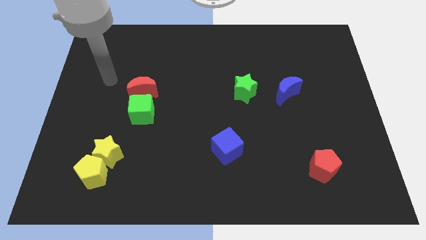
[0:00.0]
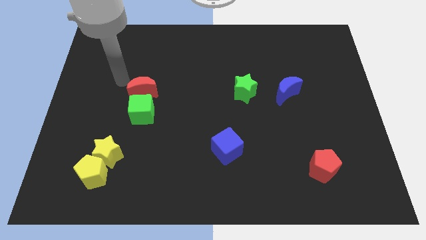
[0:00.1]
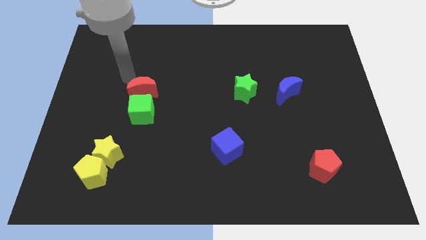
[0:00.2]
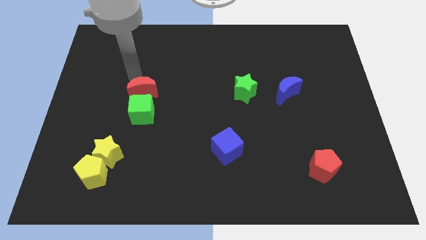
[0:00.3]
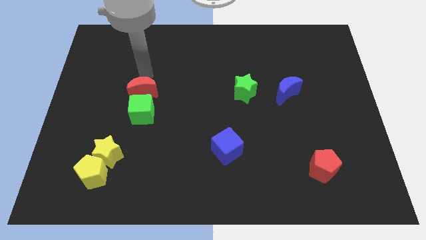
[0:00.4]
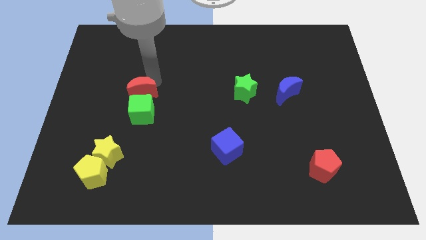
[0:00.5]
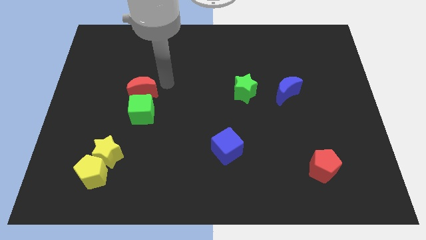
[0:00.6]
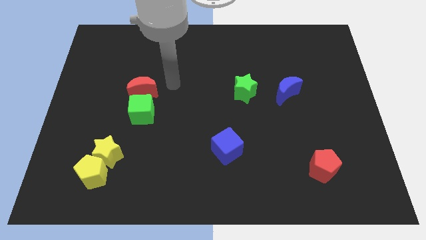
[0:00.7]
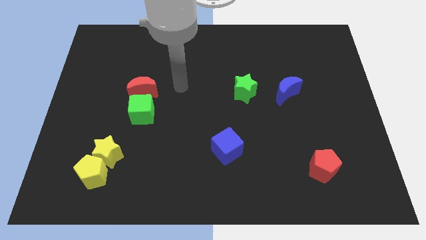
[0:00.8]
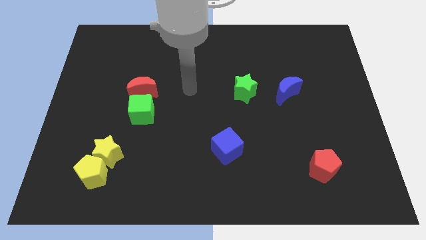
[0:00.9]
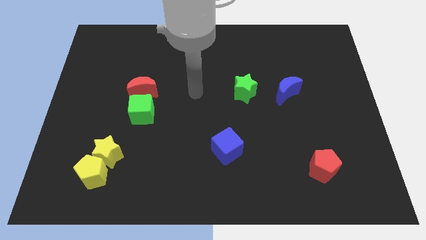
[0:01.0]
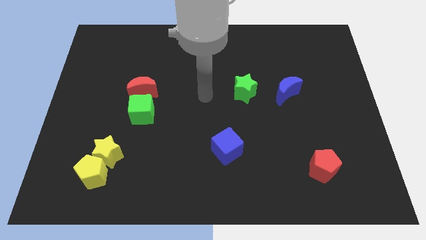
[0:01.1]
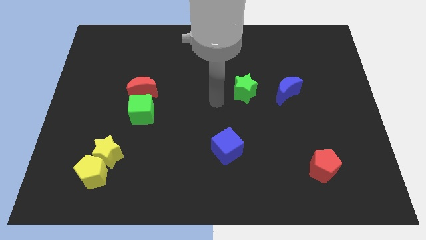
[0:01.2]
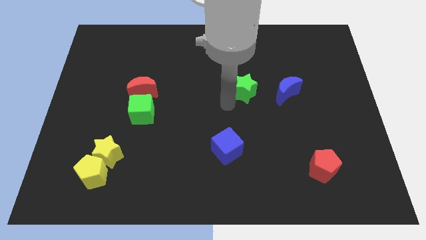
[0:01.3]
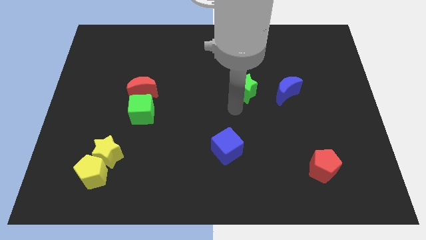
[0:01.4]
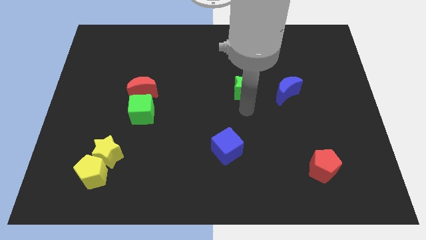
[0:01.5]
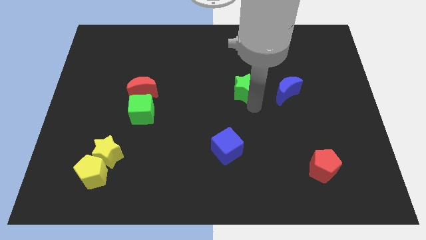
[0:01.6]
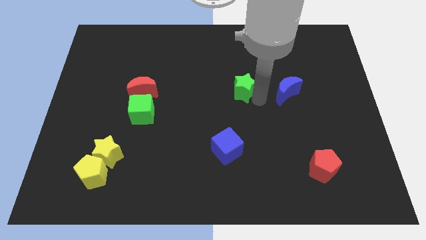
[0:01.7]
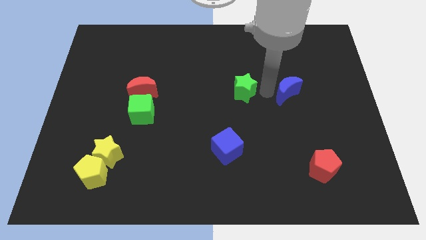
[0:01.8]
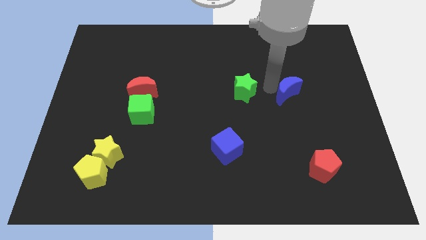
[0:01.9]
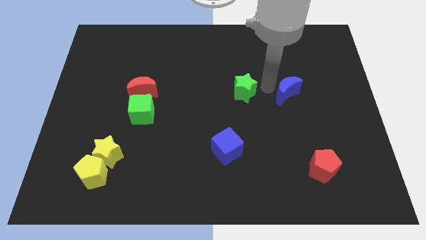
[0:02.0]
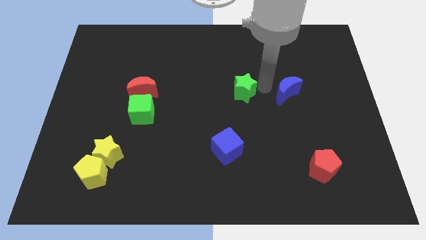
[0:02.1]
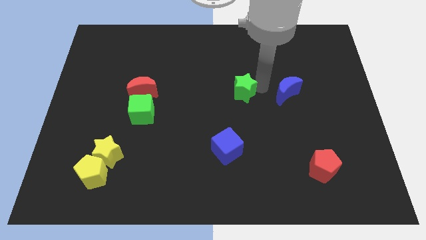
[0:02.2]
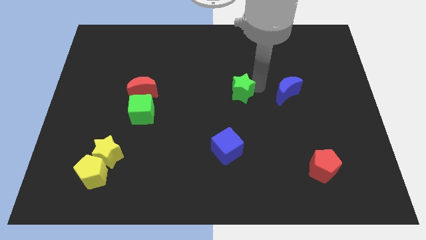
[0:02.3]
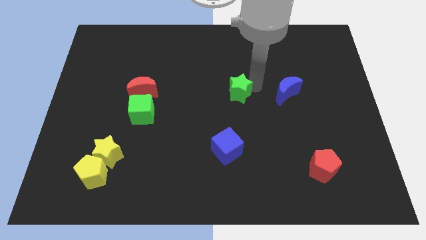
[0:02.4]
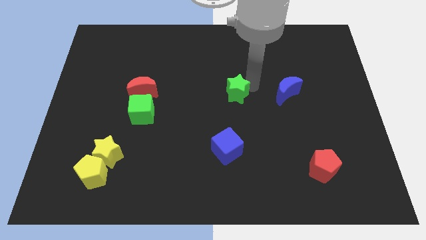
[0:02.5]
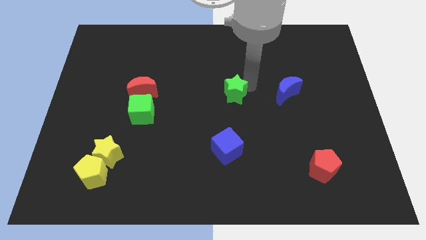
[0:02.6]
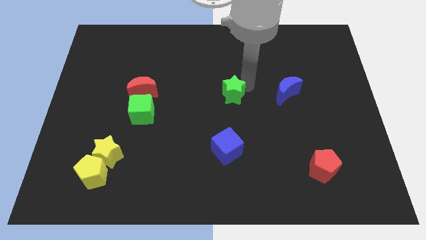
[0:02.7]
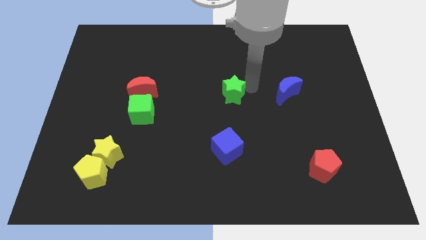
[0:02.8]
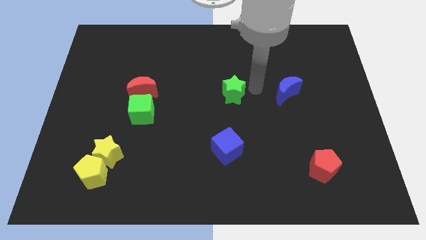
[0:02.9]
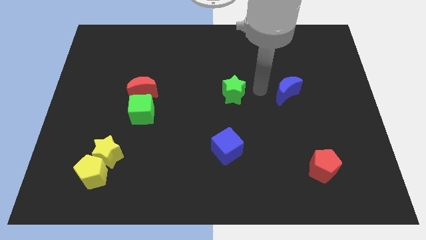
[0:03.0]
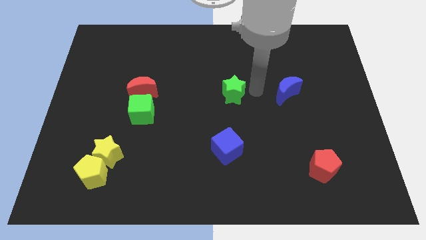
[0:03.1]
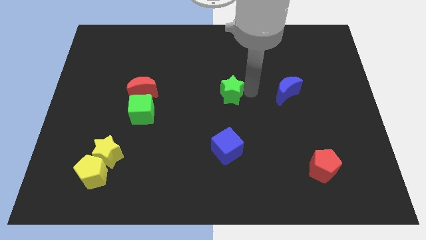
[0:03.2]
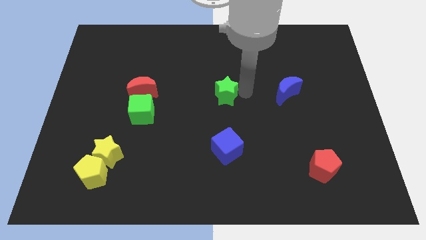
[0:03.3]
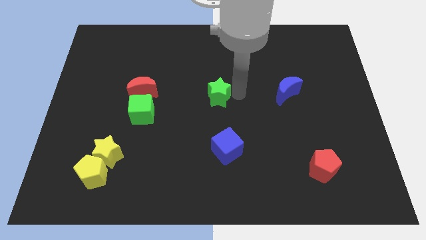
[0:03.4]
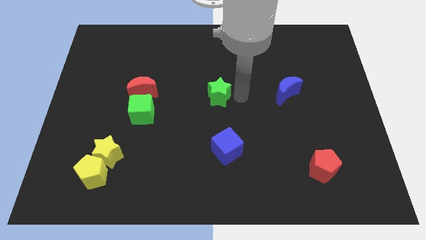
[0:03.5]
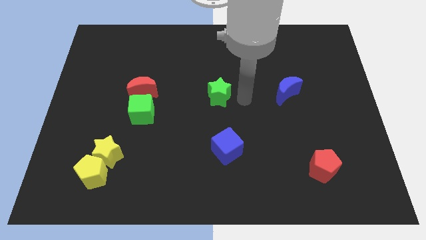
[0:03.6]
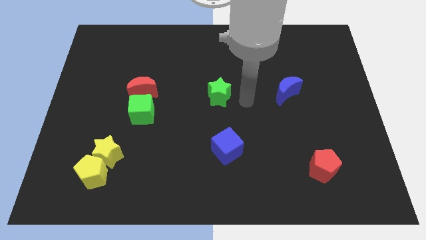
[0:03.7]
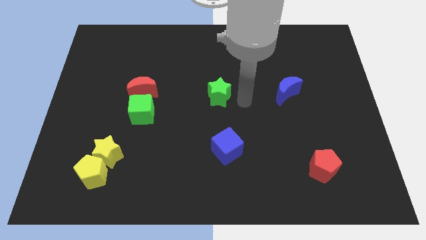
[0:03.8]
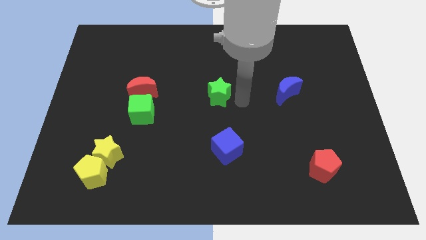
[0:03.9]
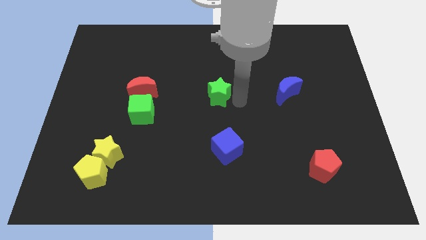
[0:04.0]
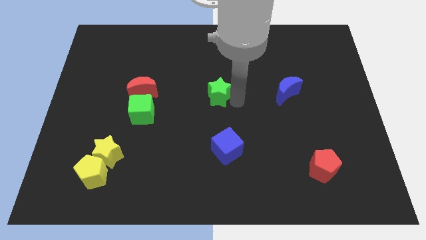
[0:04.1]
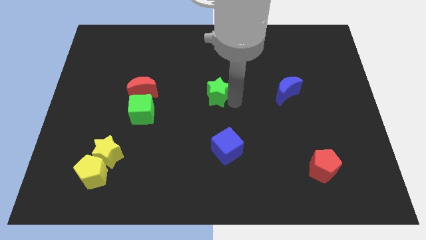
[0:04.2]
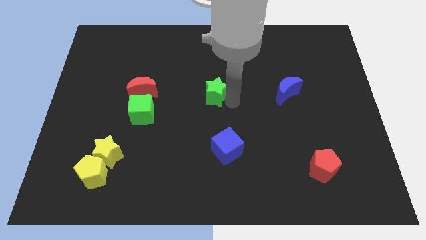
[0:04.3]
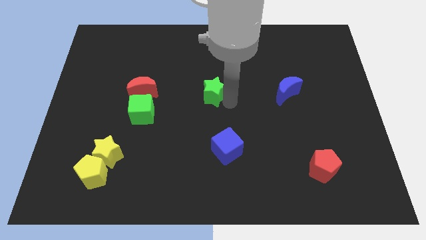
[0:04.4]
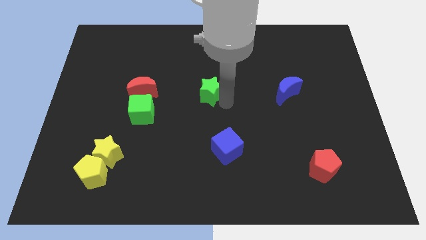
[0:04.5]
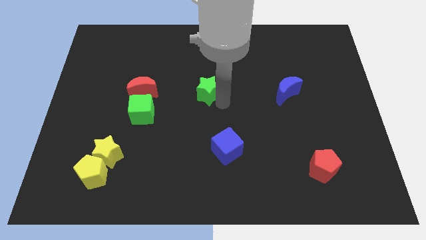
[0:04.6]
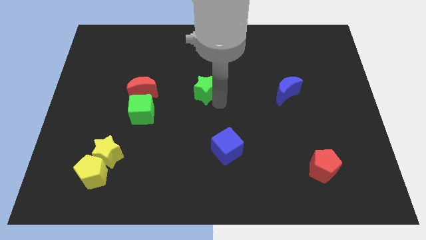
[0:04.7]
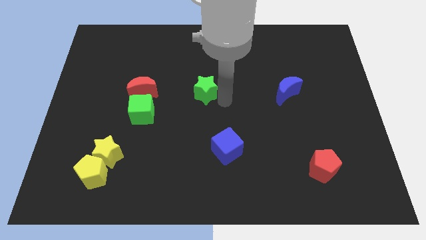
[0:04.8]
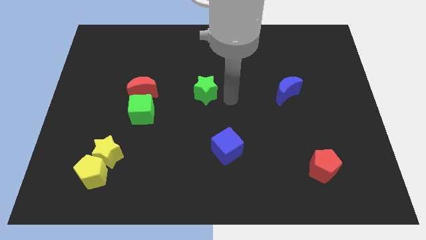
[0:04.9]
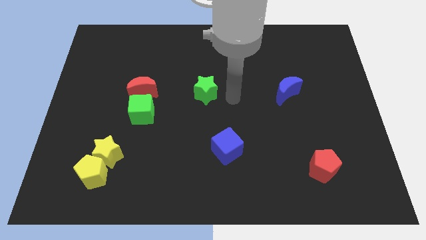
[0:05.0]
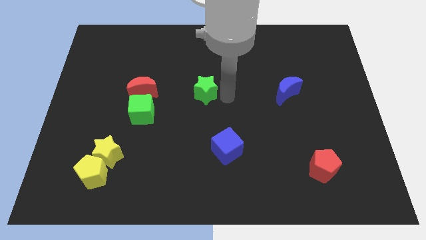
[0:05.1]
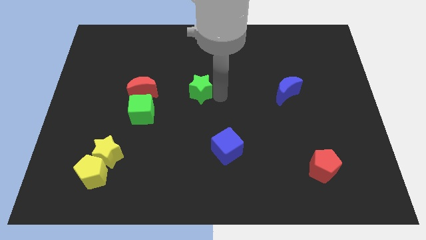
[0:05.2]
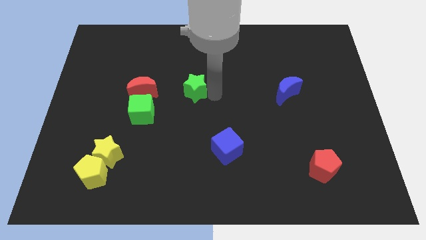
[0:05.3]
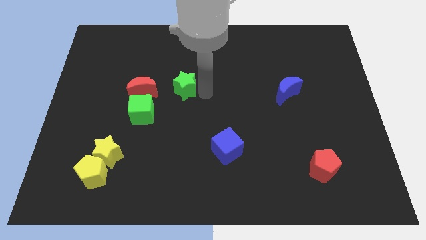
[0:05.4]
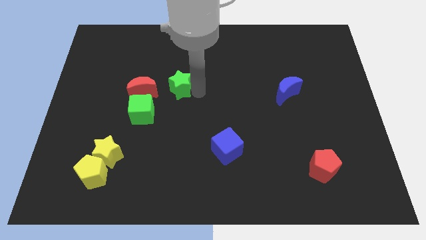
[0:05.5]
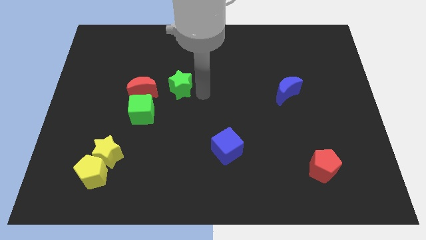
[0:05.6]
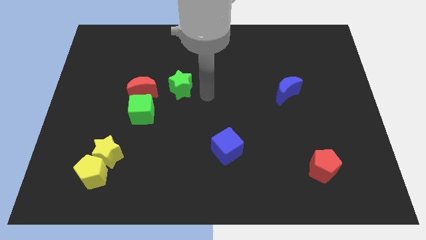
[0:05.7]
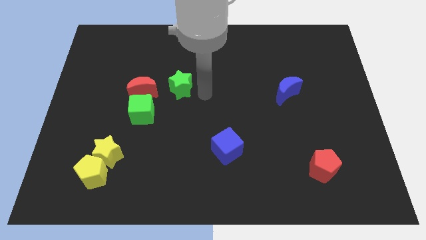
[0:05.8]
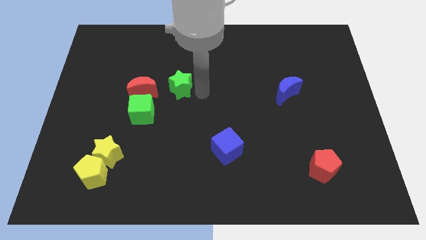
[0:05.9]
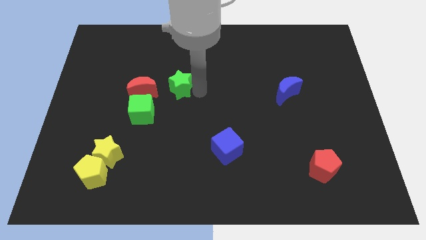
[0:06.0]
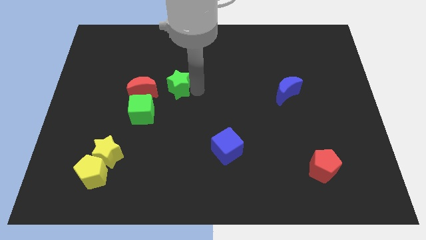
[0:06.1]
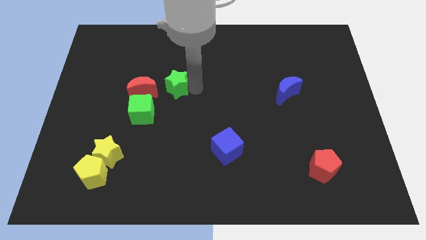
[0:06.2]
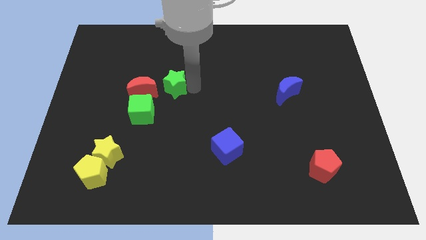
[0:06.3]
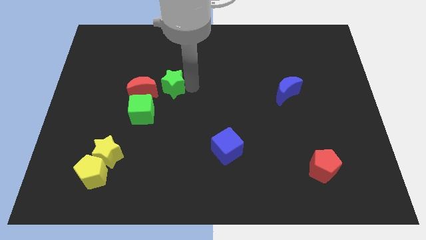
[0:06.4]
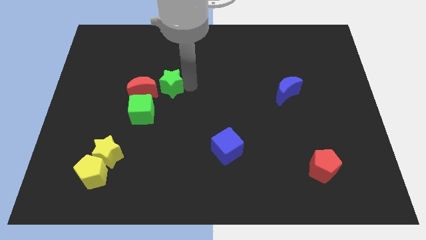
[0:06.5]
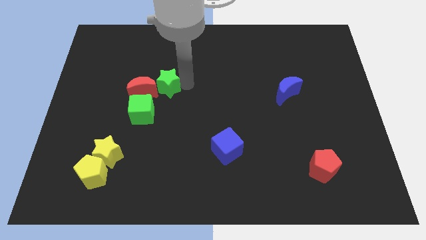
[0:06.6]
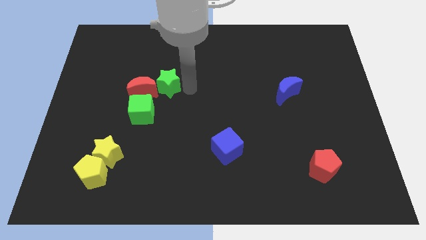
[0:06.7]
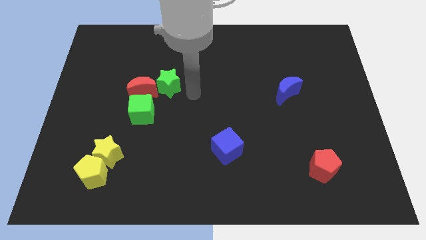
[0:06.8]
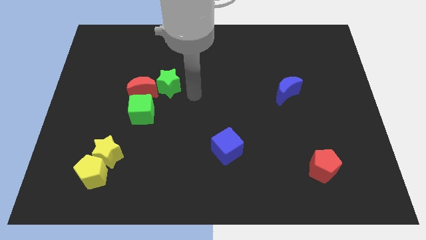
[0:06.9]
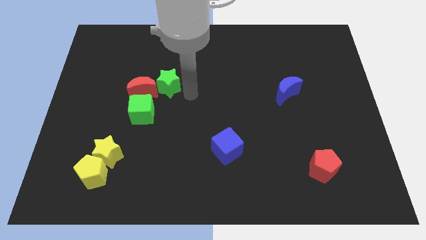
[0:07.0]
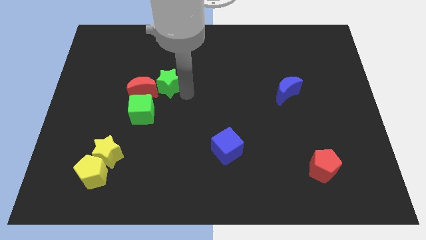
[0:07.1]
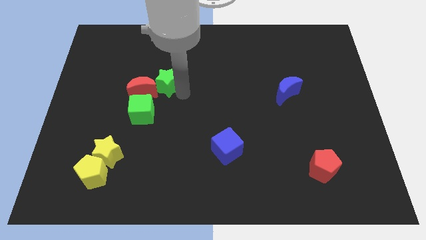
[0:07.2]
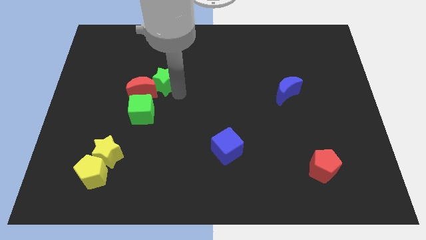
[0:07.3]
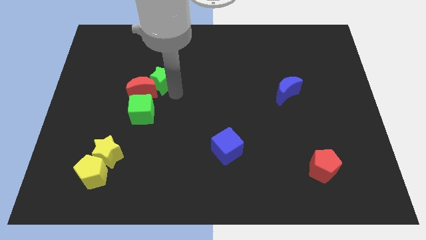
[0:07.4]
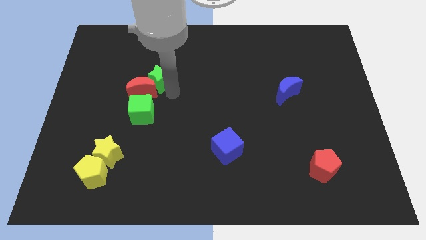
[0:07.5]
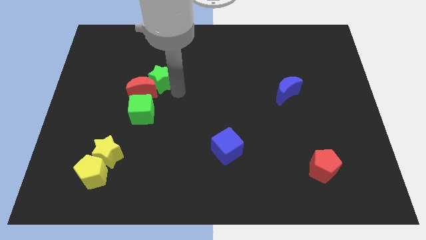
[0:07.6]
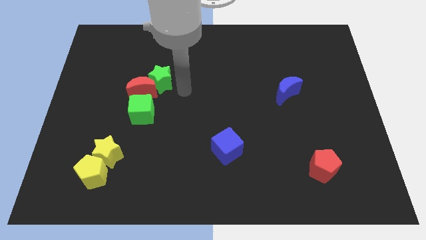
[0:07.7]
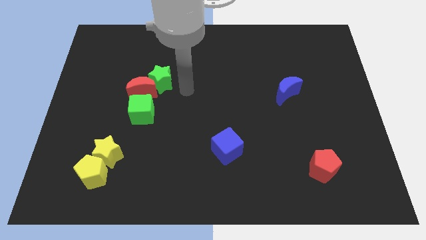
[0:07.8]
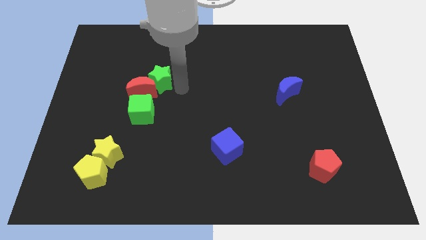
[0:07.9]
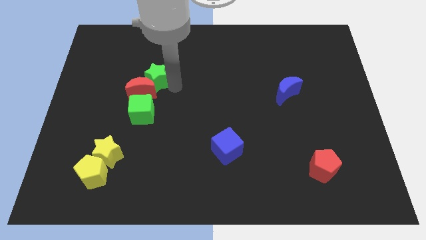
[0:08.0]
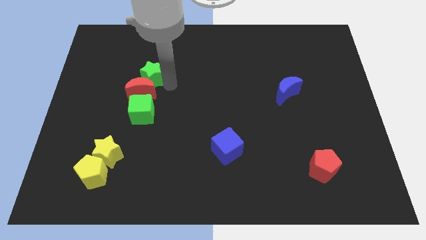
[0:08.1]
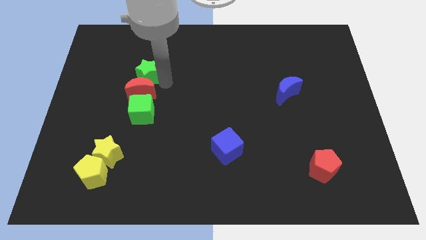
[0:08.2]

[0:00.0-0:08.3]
put the green star to the top left side of the red moon
